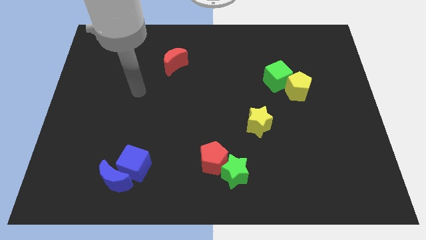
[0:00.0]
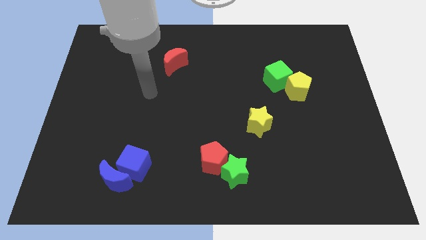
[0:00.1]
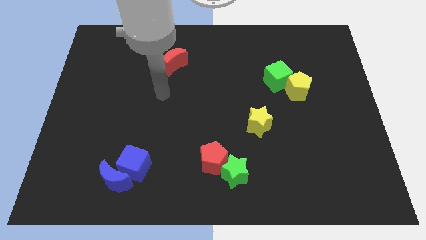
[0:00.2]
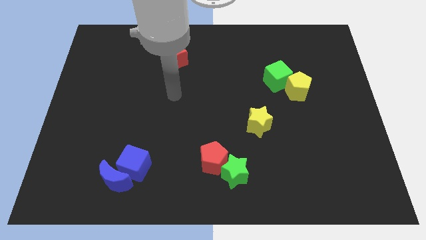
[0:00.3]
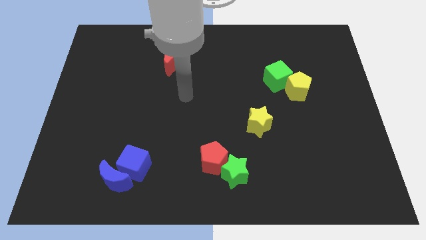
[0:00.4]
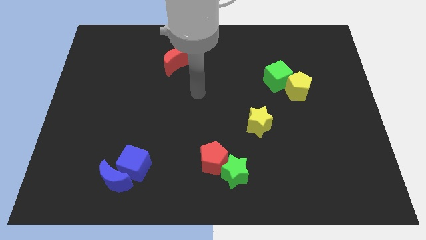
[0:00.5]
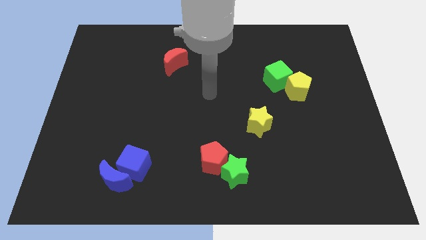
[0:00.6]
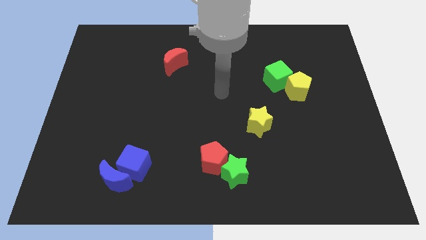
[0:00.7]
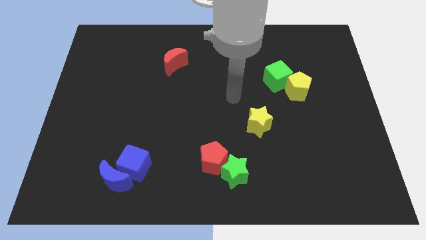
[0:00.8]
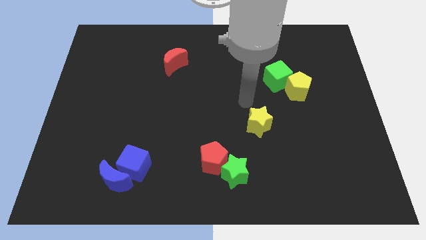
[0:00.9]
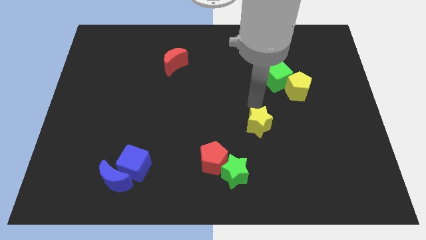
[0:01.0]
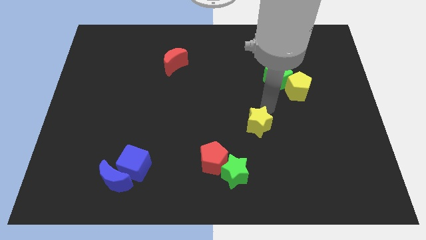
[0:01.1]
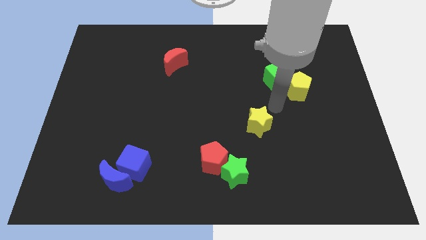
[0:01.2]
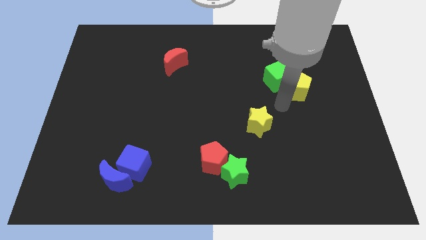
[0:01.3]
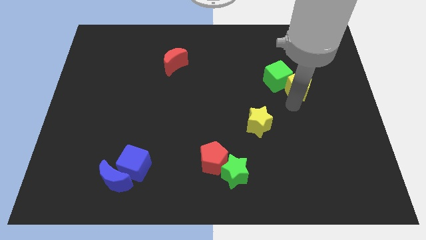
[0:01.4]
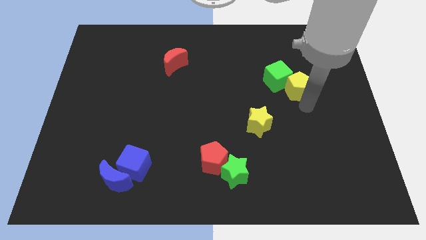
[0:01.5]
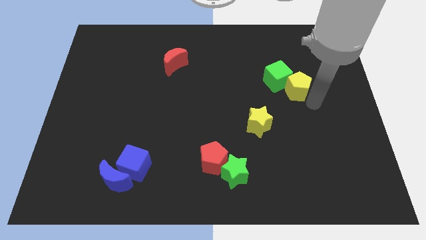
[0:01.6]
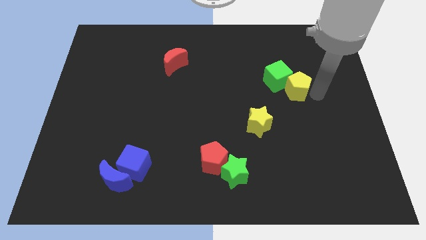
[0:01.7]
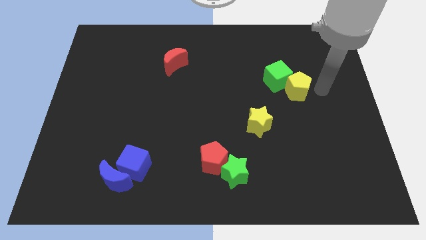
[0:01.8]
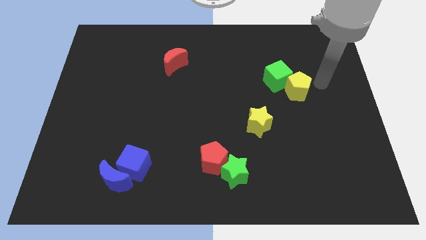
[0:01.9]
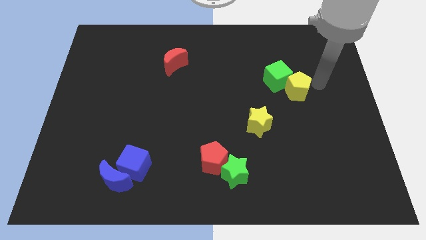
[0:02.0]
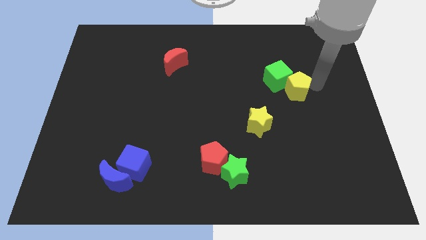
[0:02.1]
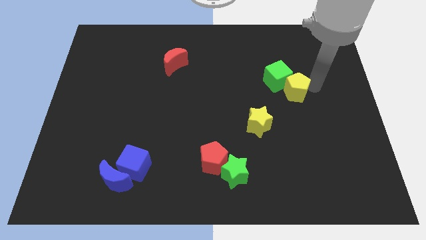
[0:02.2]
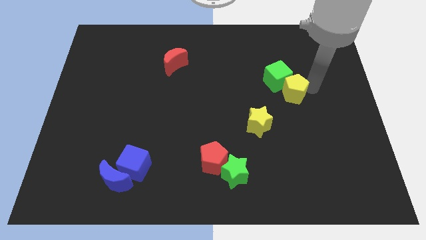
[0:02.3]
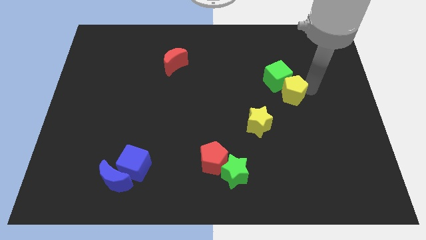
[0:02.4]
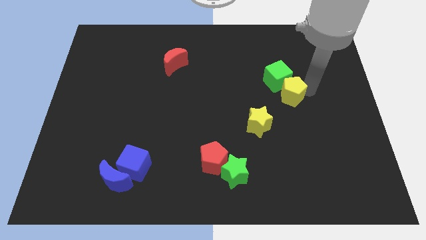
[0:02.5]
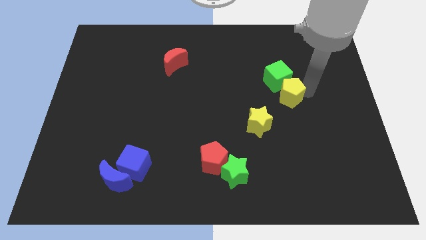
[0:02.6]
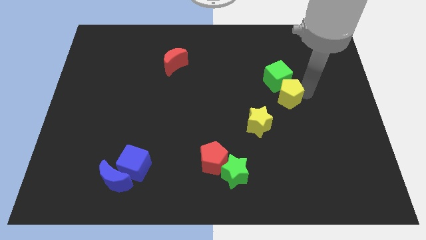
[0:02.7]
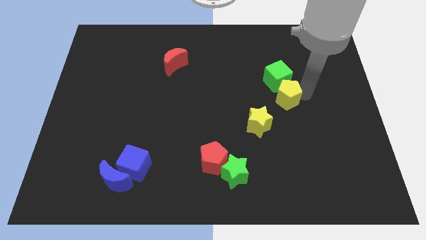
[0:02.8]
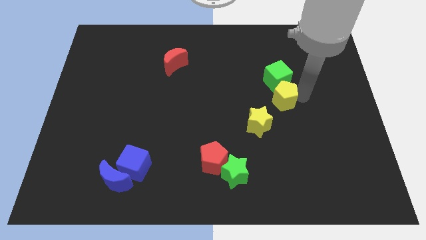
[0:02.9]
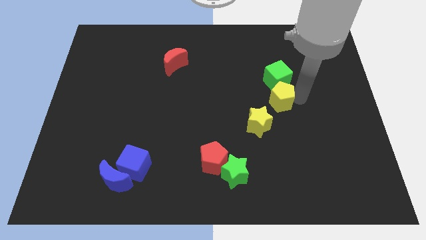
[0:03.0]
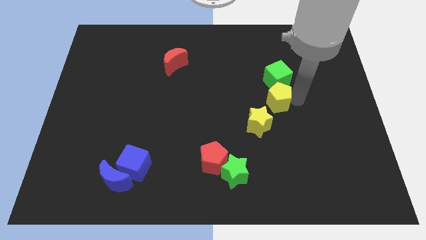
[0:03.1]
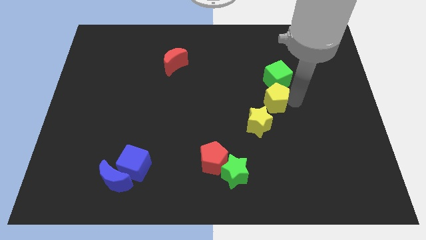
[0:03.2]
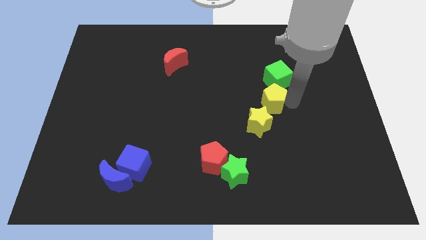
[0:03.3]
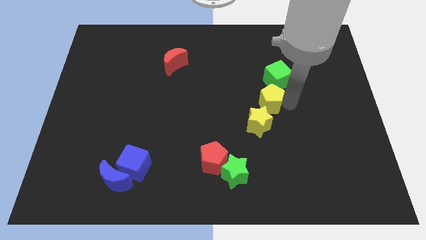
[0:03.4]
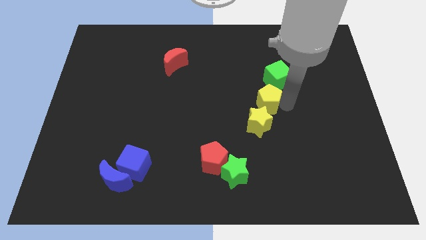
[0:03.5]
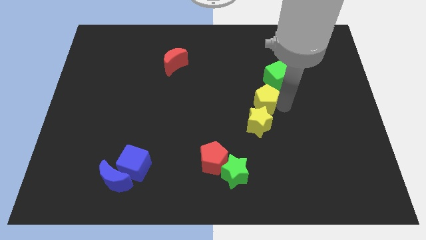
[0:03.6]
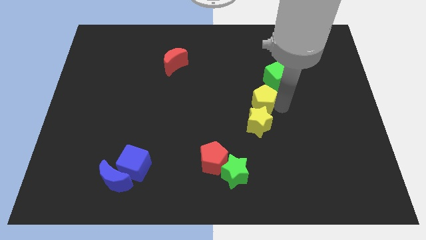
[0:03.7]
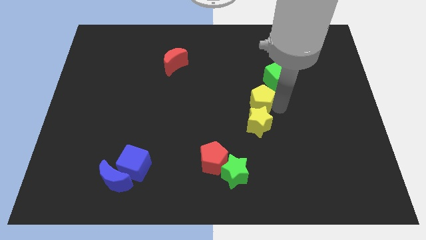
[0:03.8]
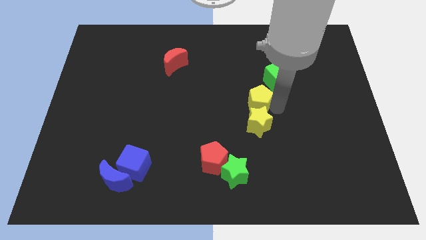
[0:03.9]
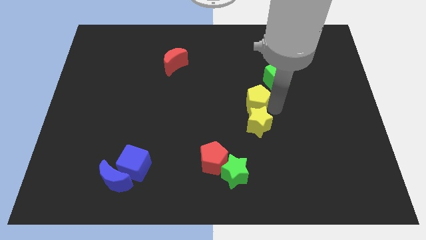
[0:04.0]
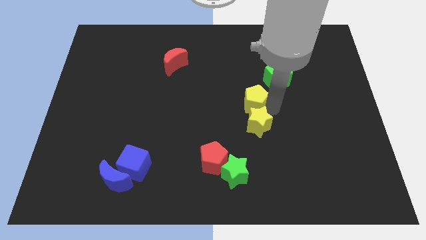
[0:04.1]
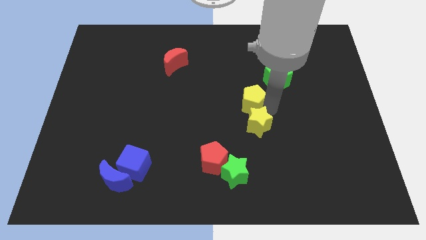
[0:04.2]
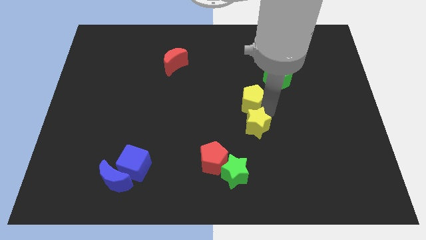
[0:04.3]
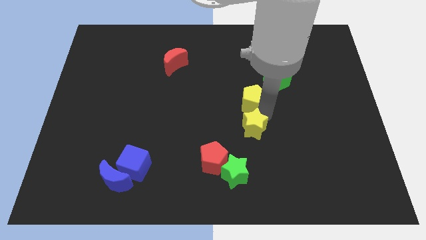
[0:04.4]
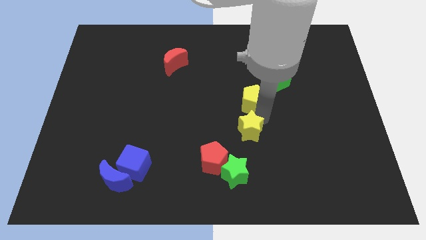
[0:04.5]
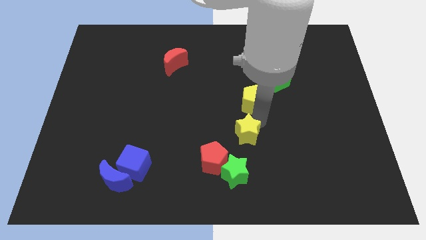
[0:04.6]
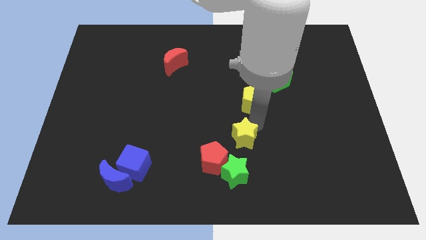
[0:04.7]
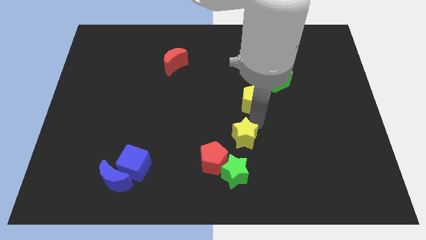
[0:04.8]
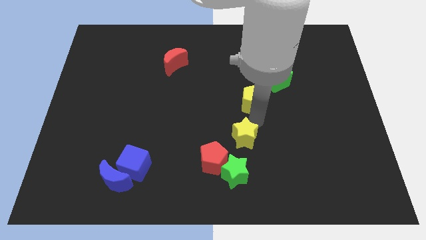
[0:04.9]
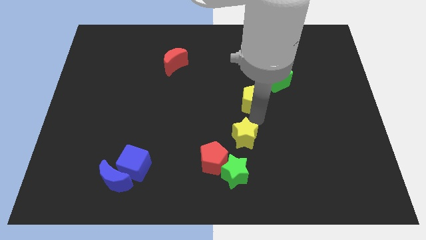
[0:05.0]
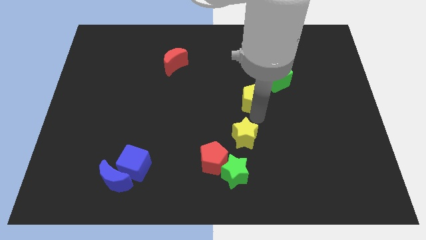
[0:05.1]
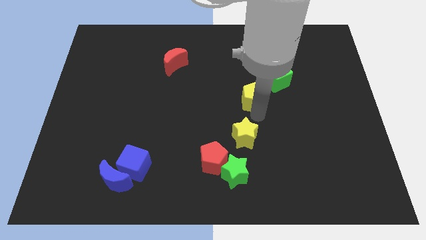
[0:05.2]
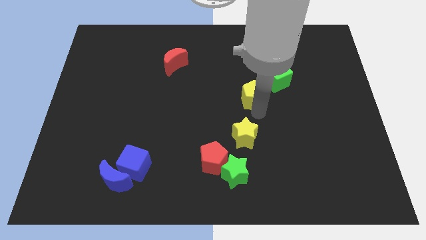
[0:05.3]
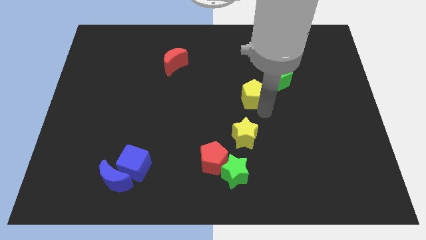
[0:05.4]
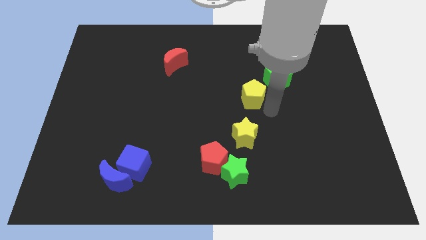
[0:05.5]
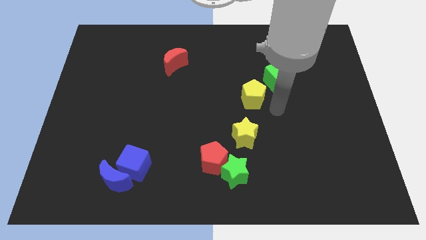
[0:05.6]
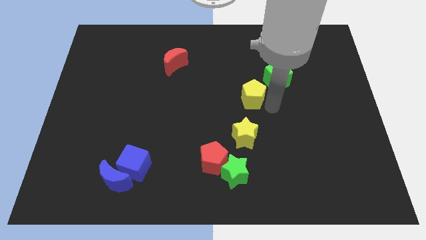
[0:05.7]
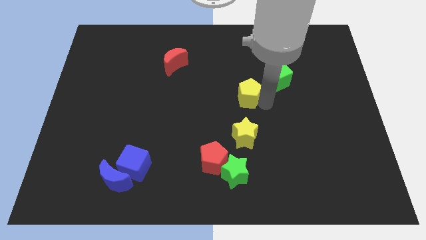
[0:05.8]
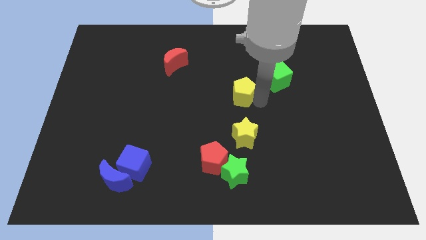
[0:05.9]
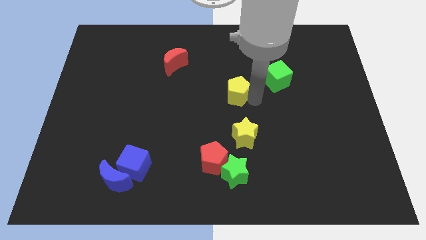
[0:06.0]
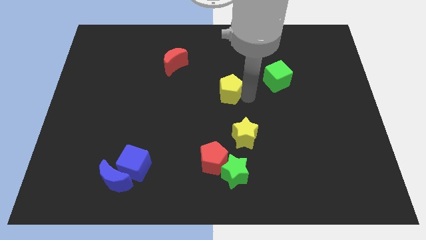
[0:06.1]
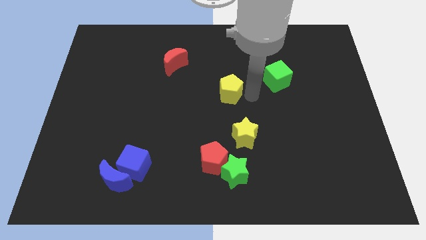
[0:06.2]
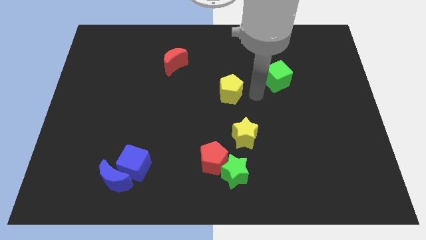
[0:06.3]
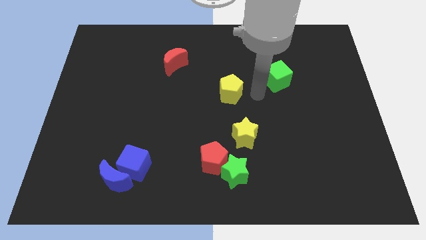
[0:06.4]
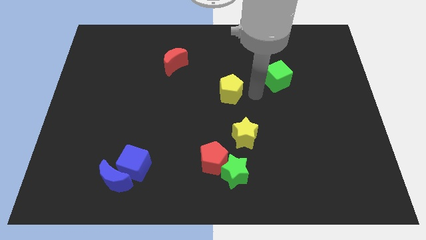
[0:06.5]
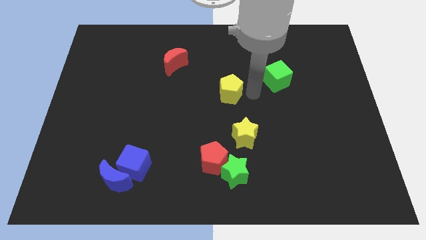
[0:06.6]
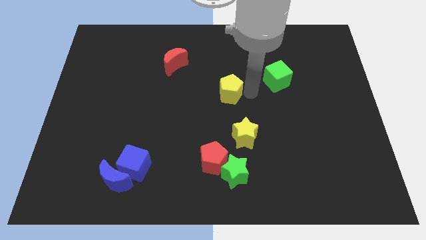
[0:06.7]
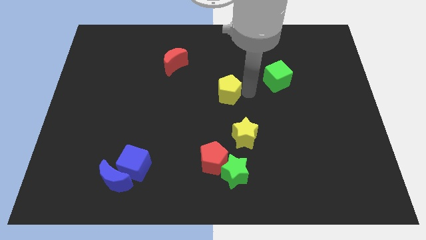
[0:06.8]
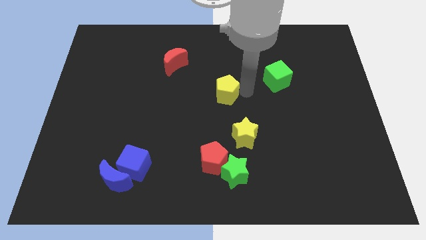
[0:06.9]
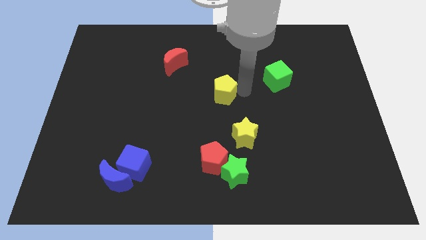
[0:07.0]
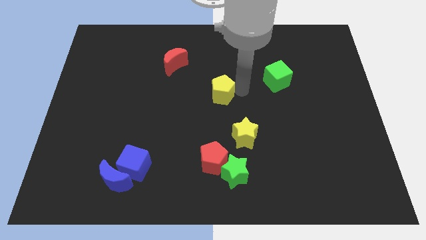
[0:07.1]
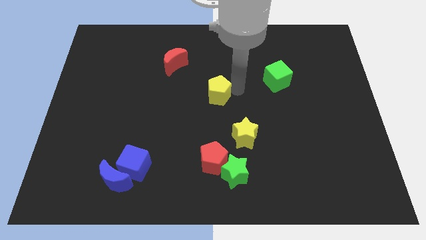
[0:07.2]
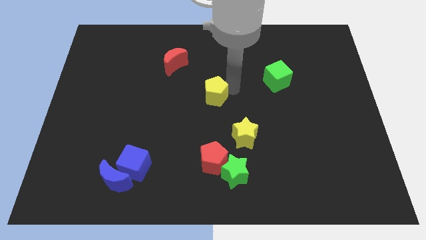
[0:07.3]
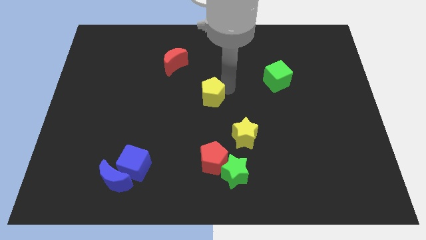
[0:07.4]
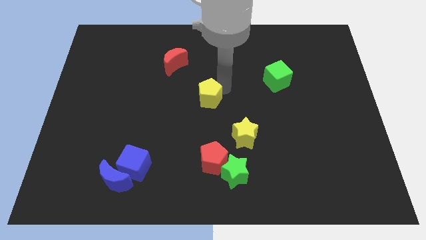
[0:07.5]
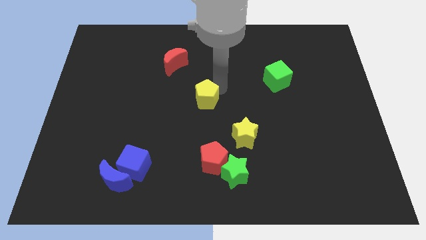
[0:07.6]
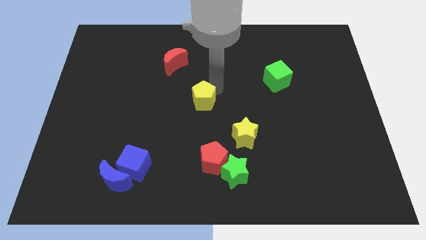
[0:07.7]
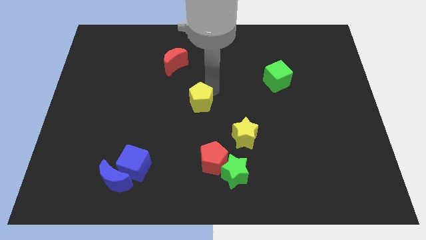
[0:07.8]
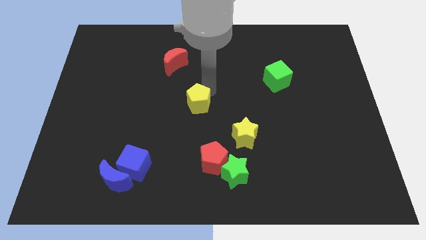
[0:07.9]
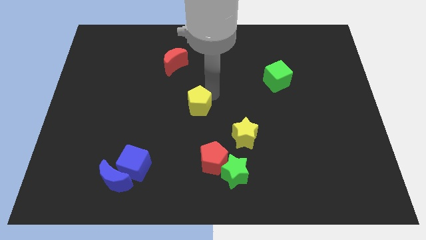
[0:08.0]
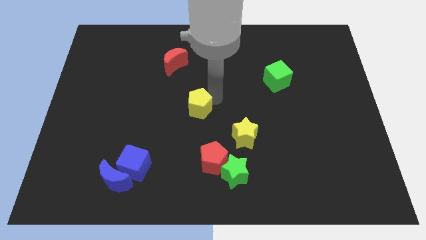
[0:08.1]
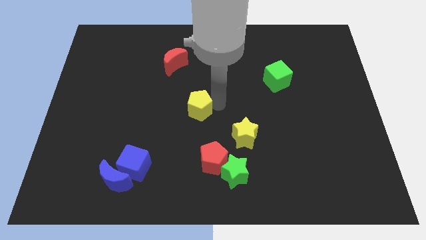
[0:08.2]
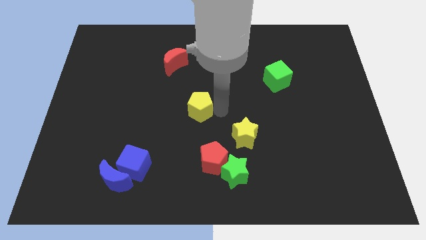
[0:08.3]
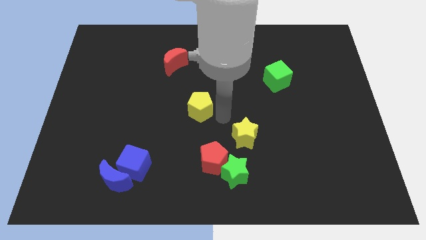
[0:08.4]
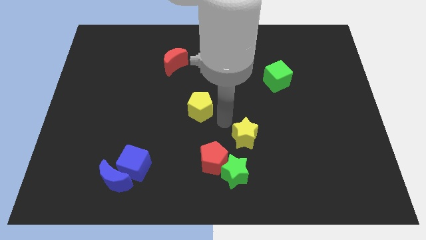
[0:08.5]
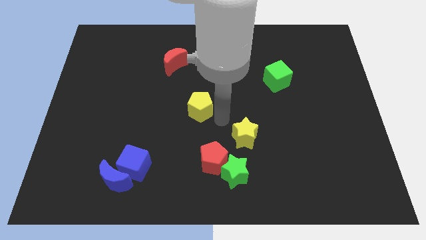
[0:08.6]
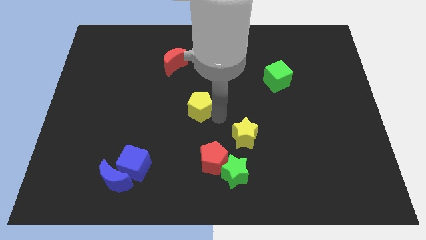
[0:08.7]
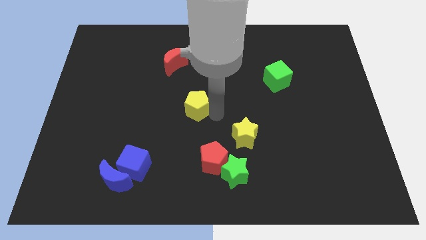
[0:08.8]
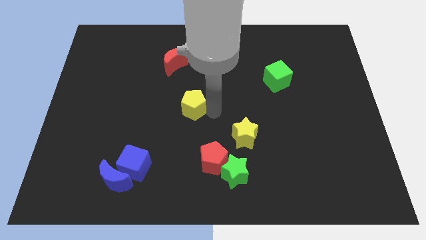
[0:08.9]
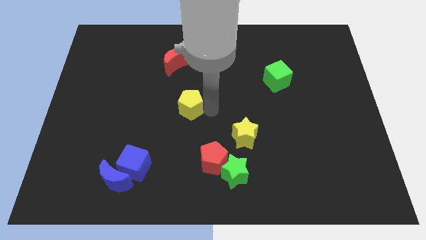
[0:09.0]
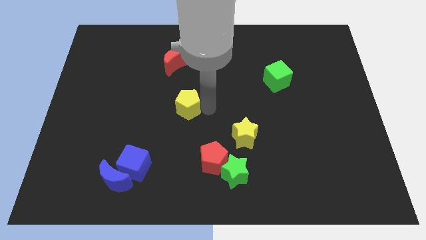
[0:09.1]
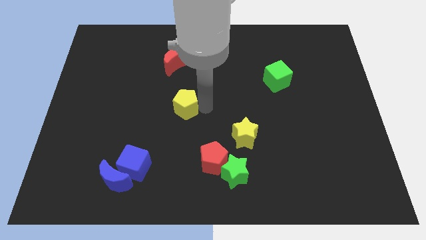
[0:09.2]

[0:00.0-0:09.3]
move the yellow pentagon to the bottom of the red moon
